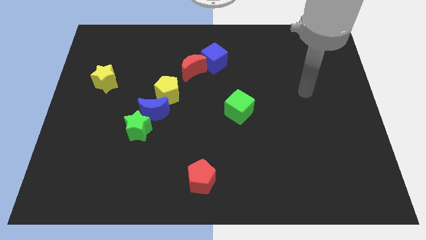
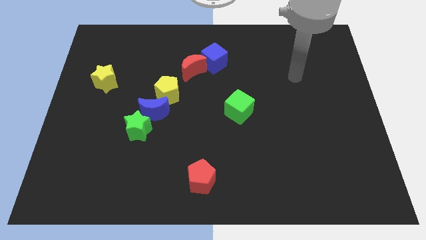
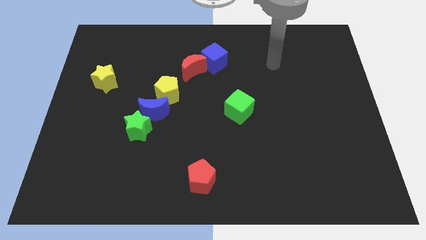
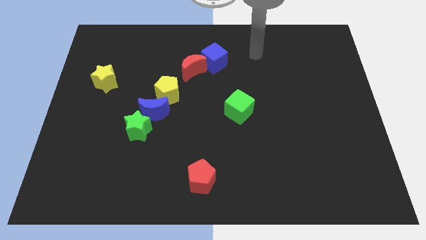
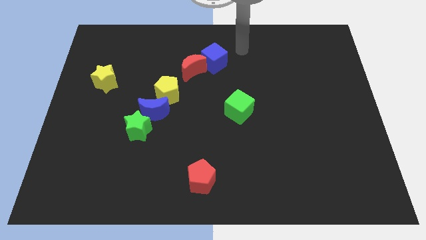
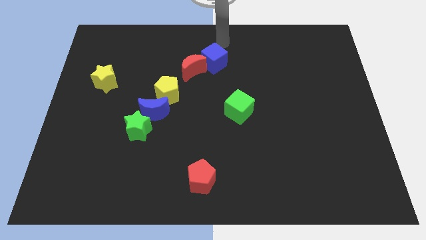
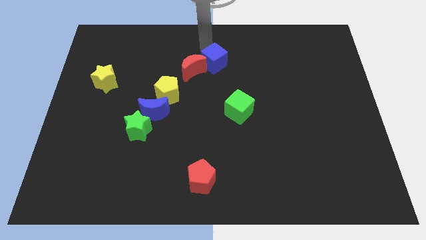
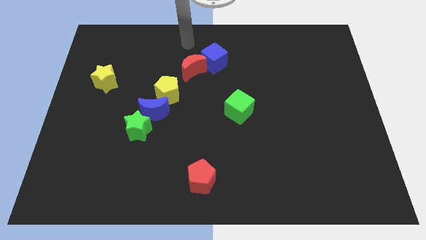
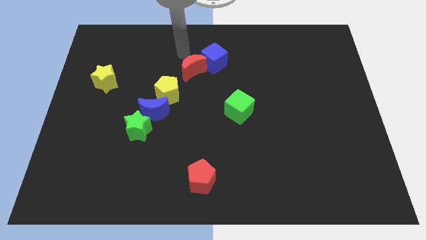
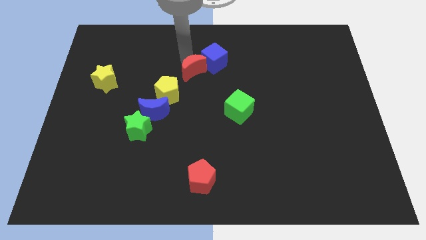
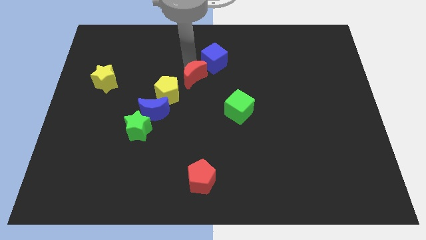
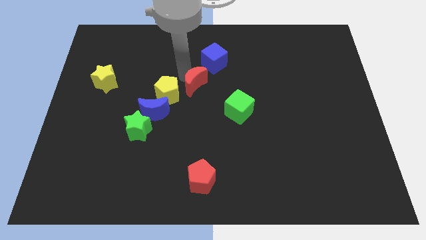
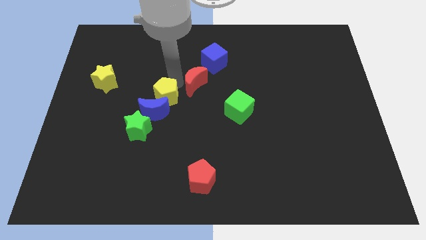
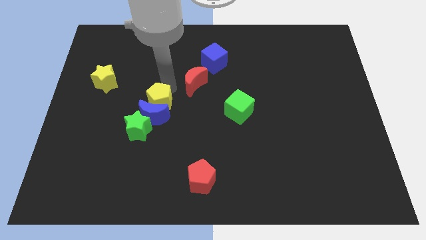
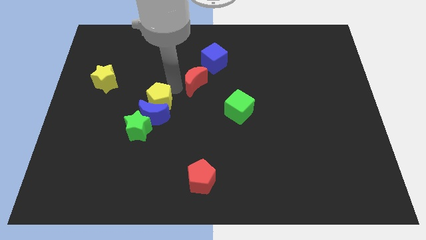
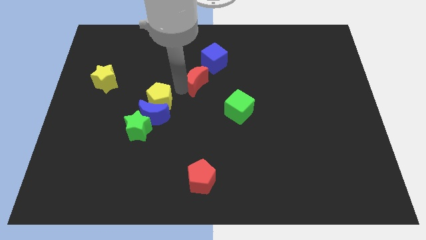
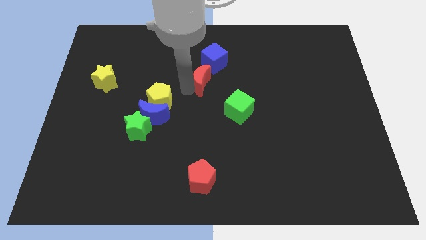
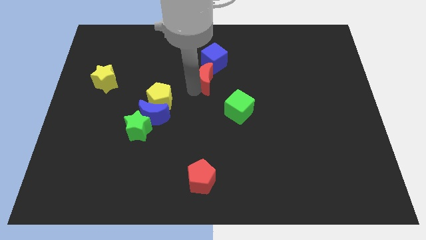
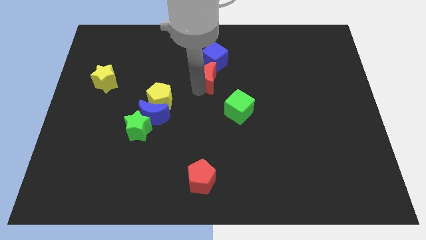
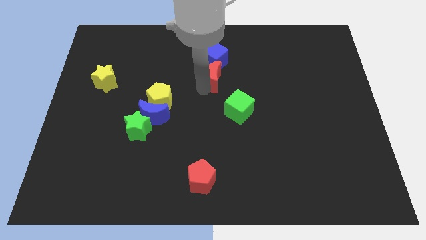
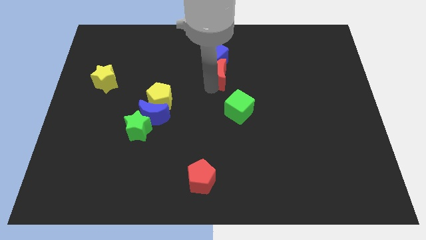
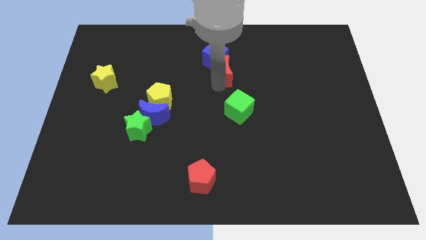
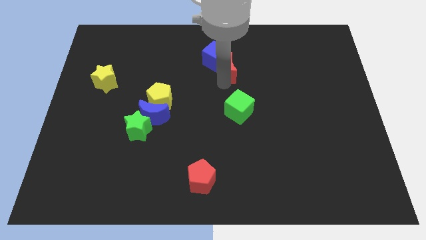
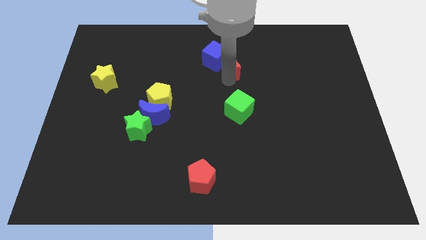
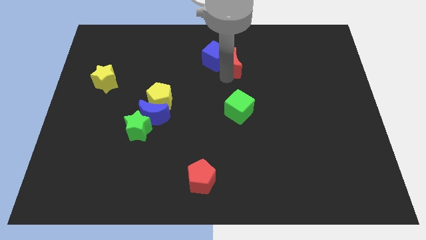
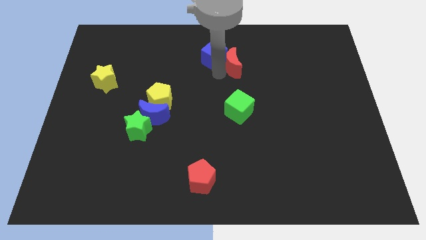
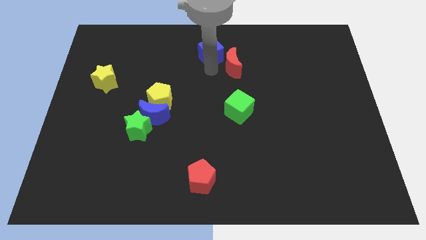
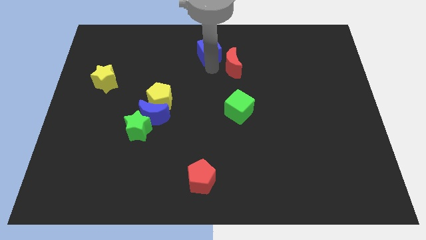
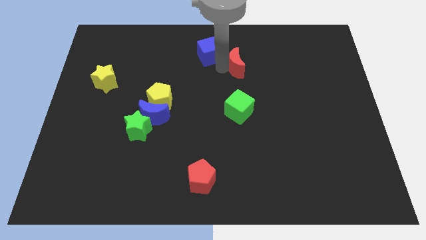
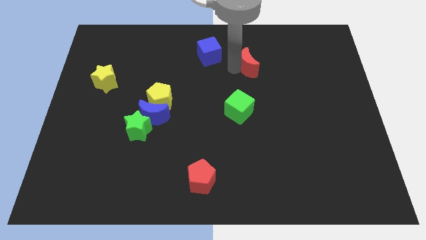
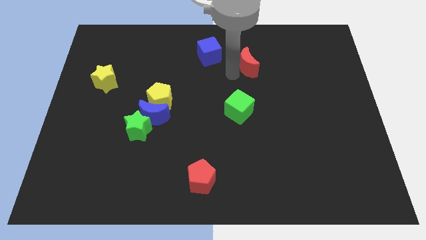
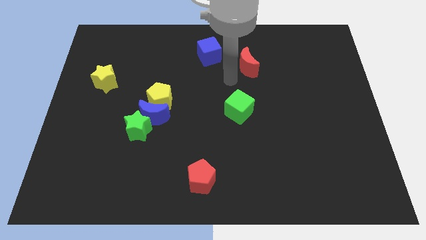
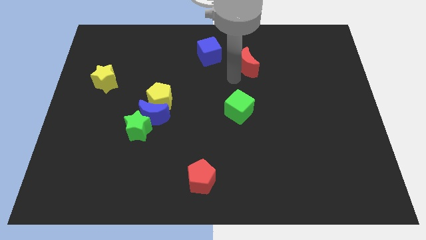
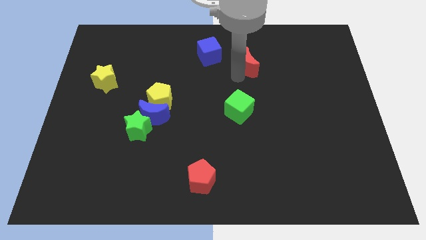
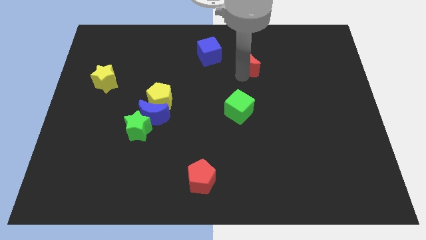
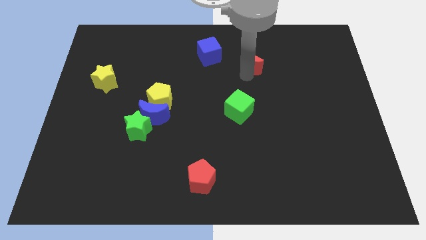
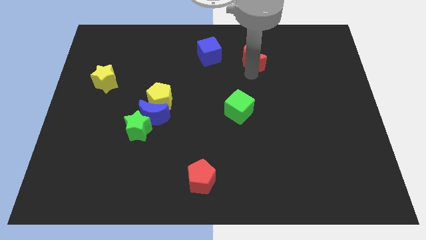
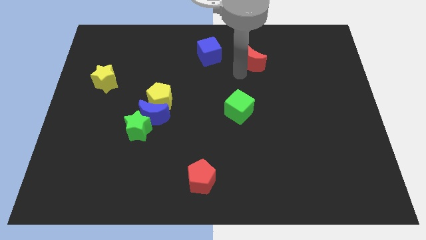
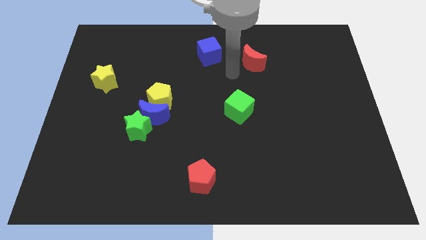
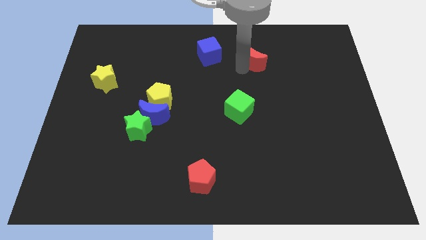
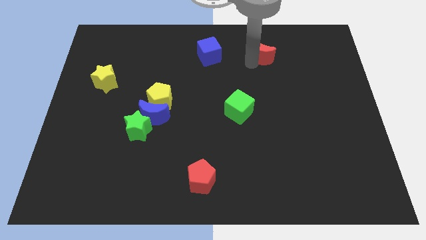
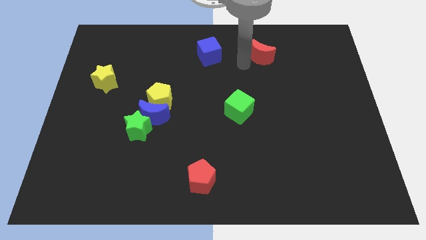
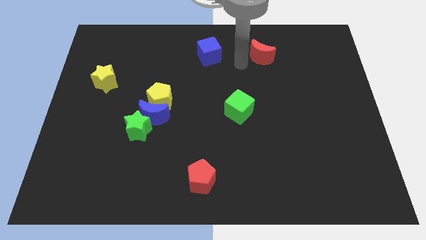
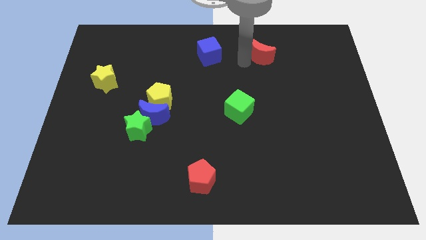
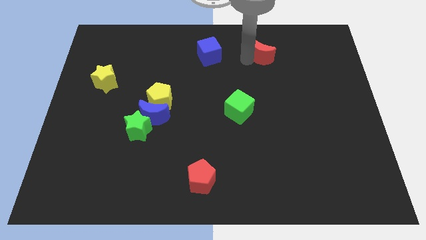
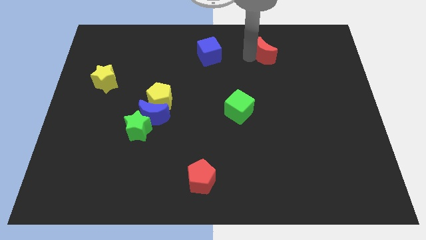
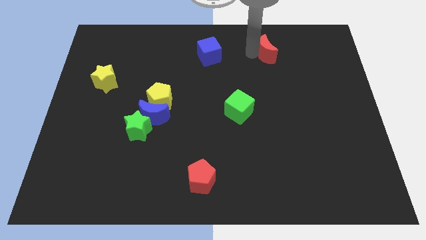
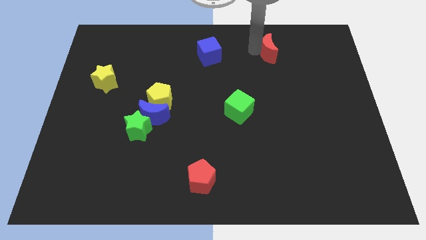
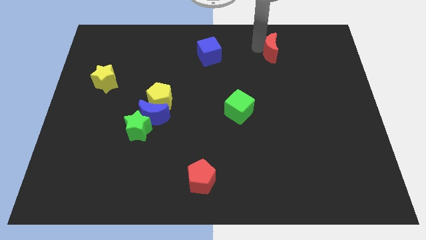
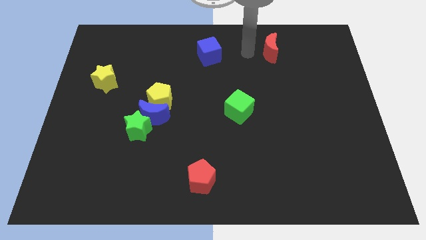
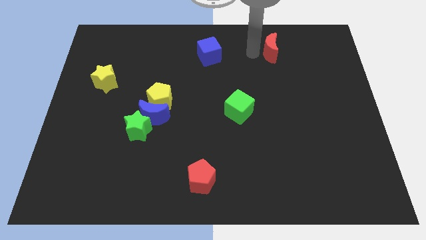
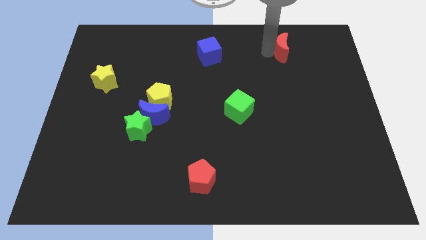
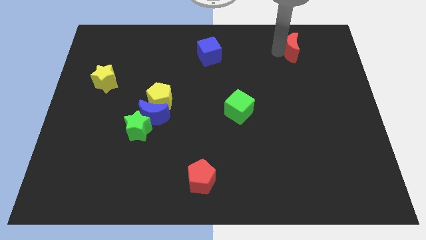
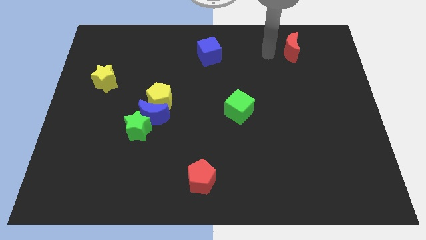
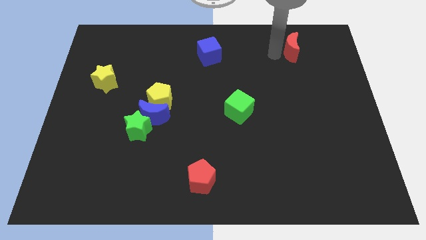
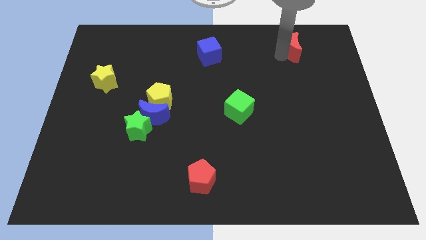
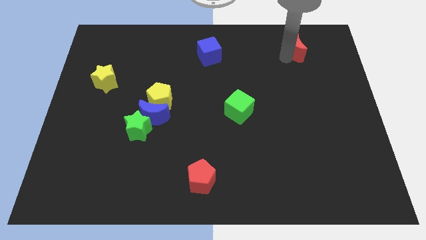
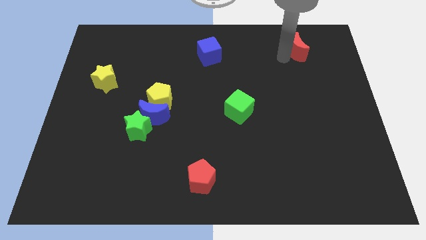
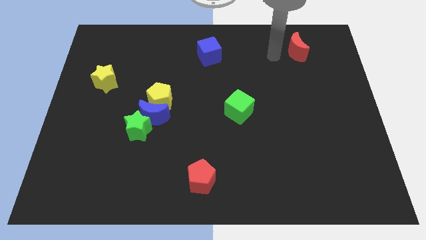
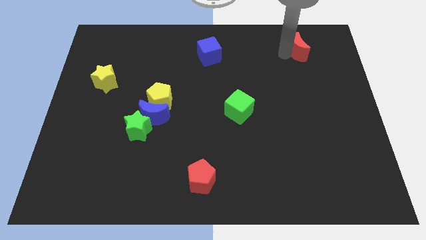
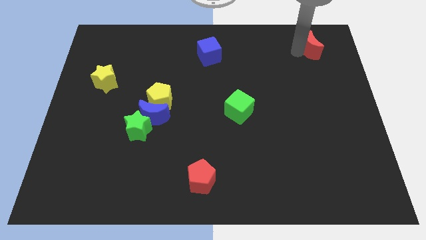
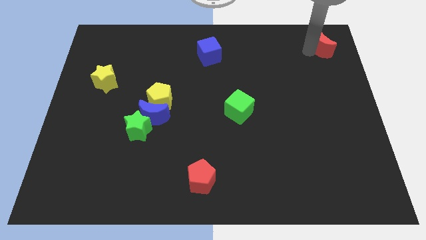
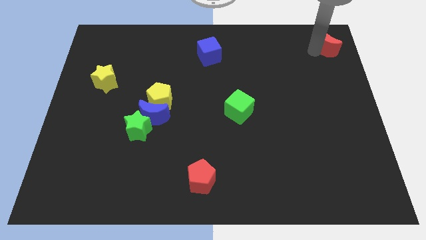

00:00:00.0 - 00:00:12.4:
move the red moon to the top right
